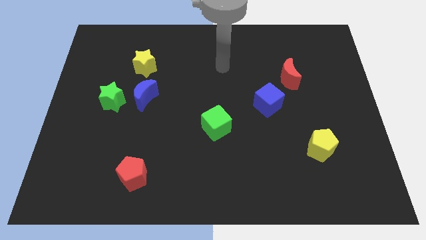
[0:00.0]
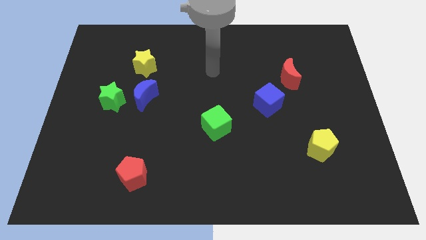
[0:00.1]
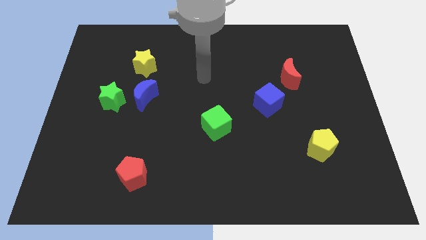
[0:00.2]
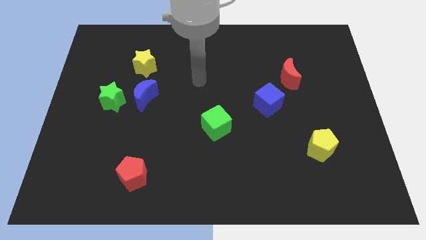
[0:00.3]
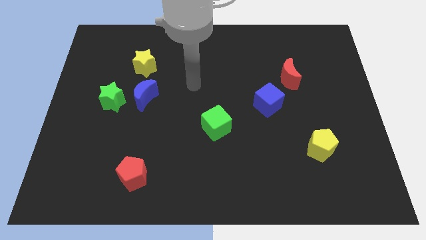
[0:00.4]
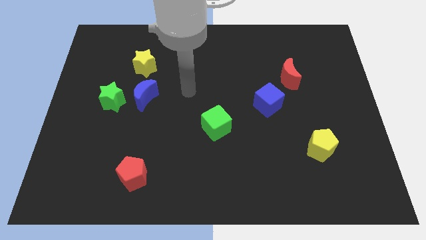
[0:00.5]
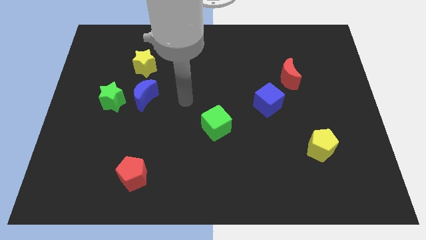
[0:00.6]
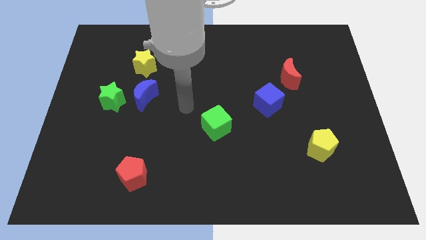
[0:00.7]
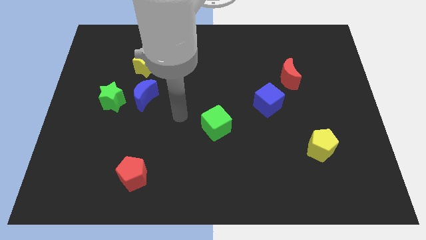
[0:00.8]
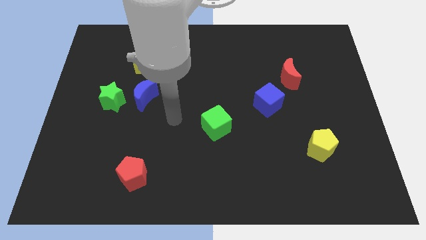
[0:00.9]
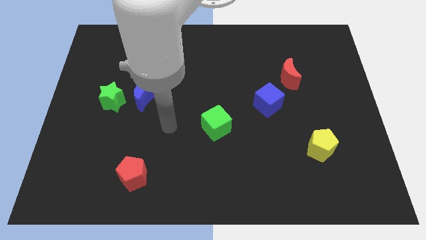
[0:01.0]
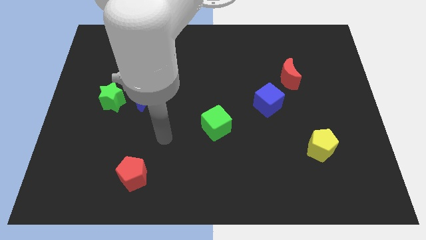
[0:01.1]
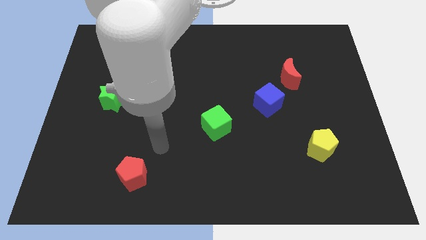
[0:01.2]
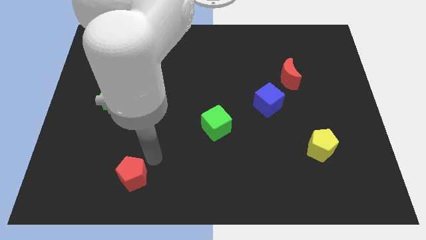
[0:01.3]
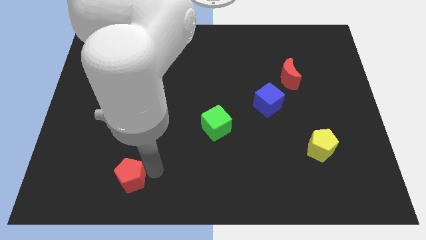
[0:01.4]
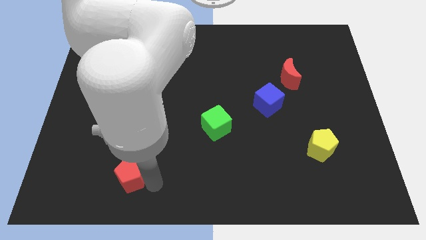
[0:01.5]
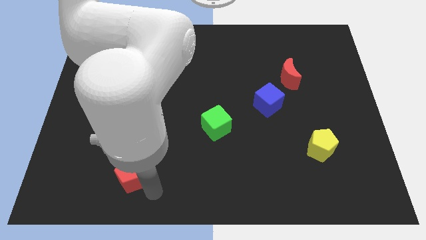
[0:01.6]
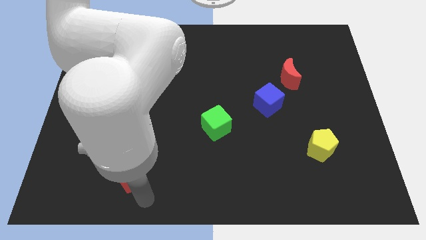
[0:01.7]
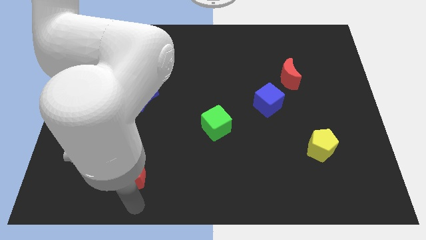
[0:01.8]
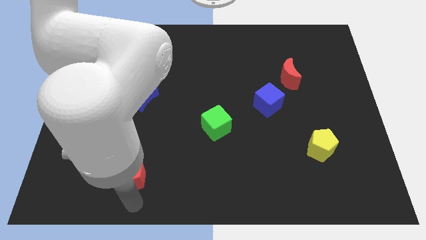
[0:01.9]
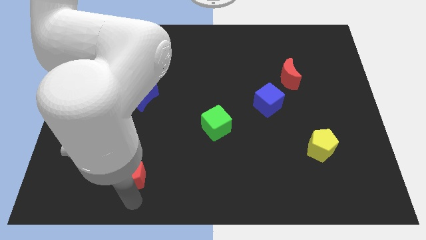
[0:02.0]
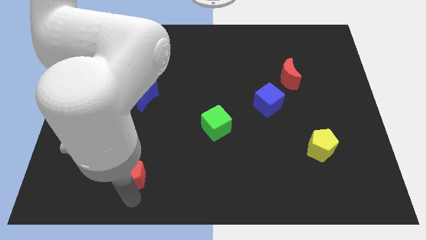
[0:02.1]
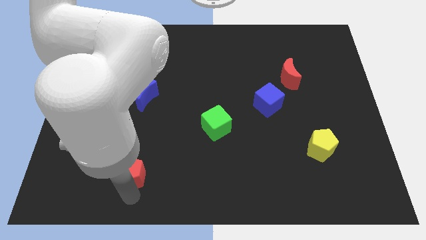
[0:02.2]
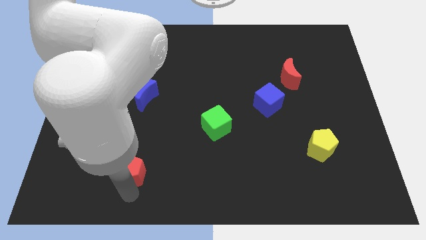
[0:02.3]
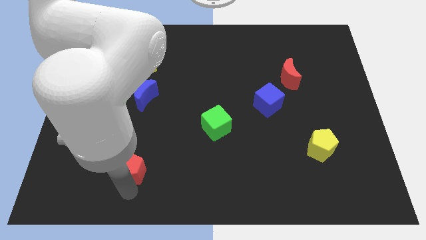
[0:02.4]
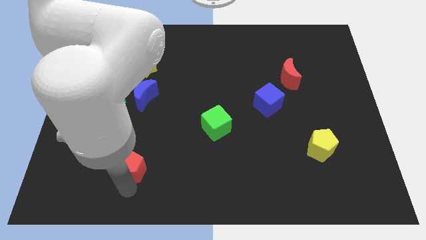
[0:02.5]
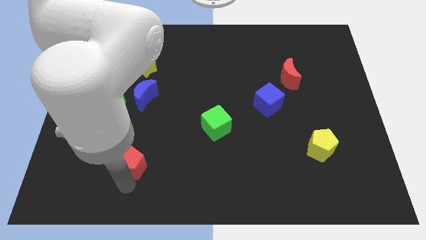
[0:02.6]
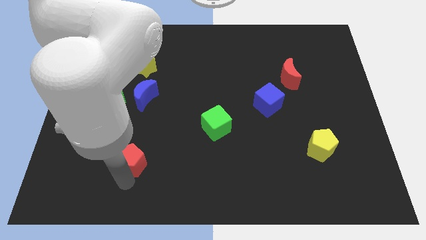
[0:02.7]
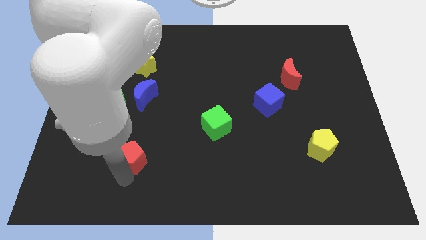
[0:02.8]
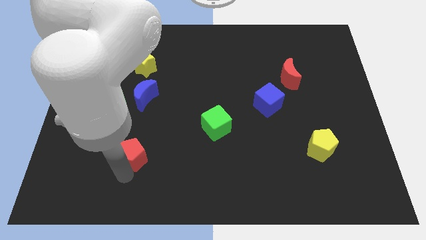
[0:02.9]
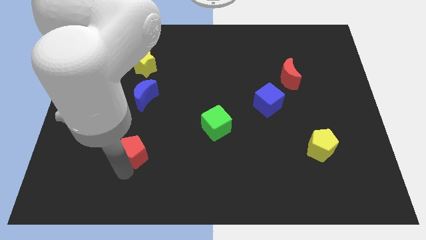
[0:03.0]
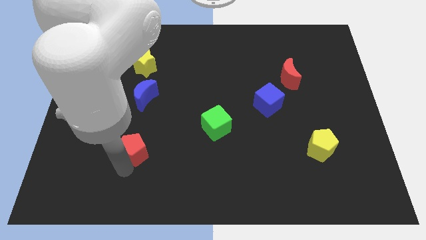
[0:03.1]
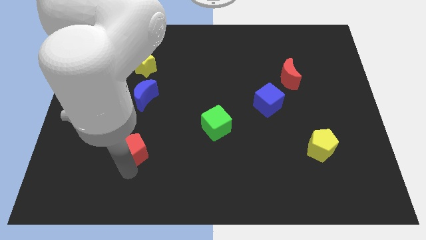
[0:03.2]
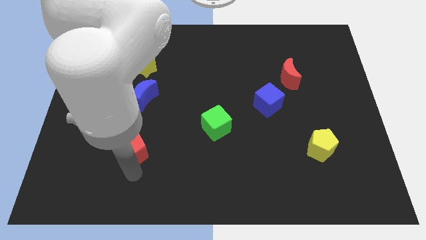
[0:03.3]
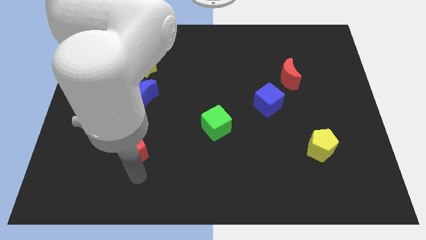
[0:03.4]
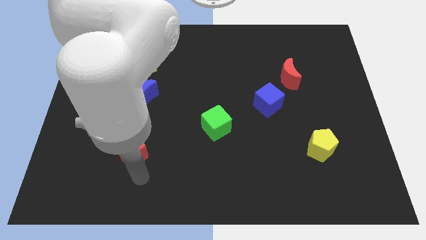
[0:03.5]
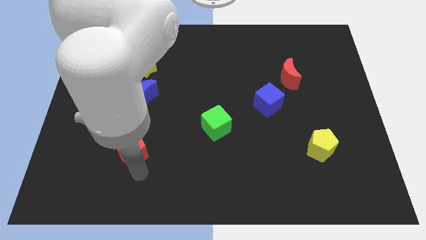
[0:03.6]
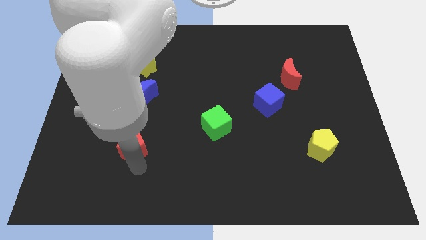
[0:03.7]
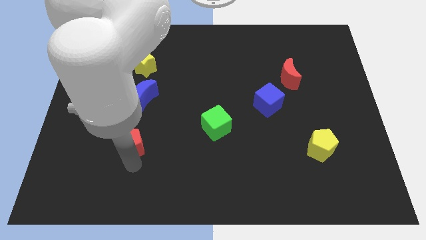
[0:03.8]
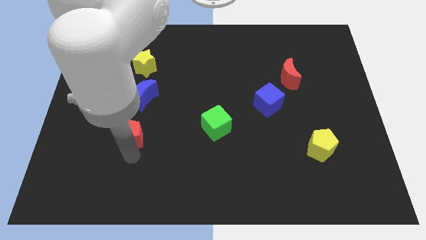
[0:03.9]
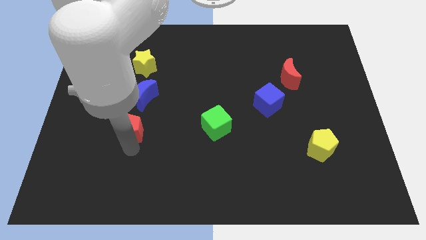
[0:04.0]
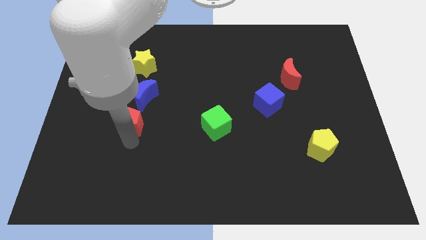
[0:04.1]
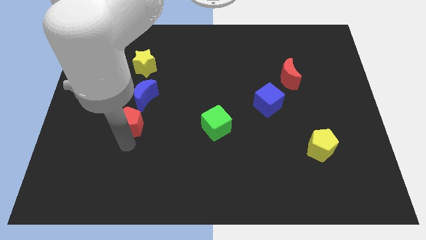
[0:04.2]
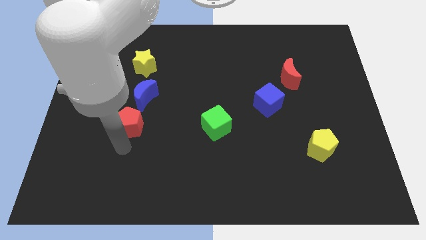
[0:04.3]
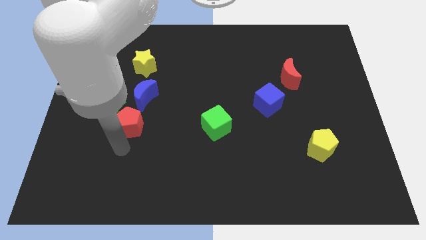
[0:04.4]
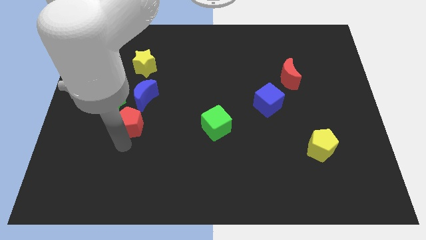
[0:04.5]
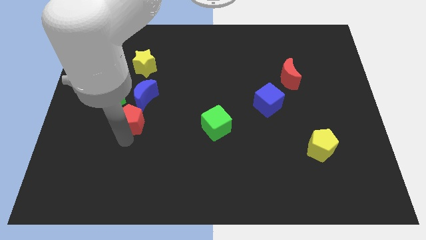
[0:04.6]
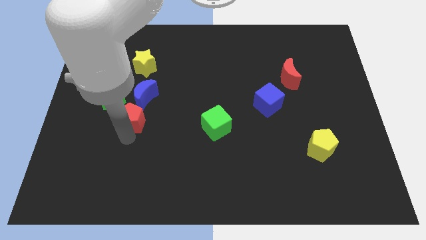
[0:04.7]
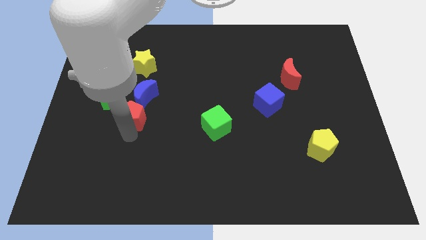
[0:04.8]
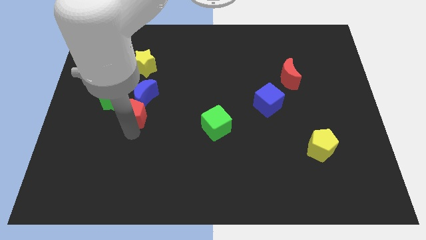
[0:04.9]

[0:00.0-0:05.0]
put the red pentagon to the bottom of the yellow star

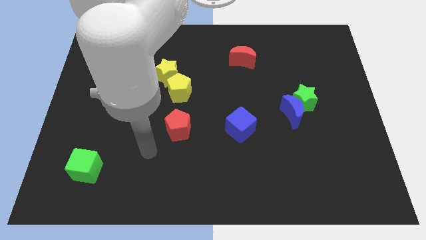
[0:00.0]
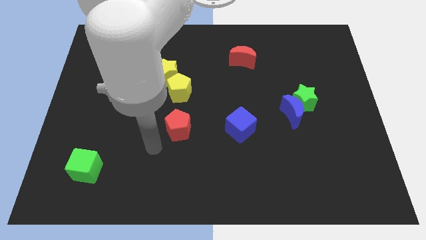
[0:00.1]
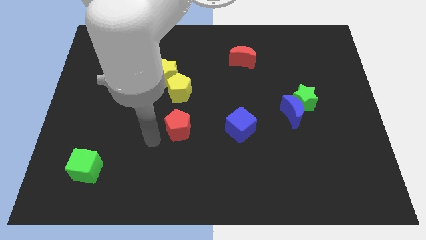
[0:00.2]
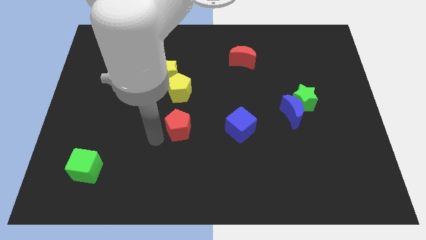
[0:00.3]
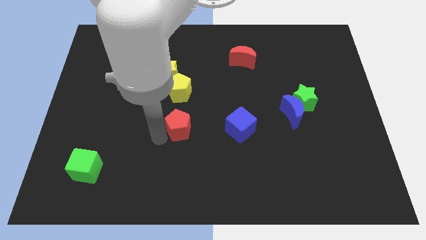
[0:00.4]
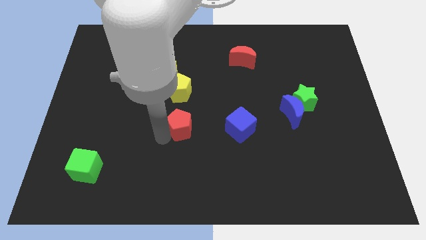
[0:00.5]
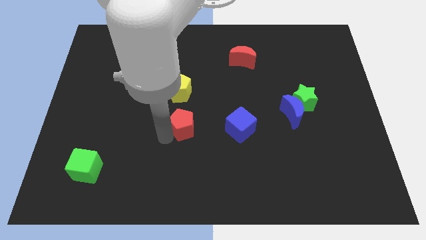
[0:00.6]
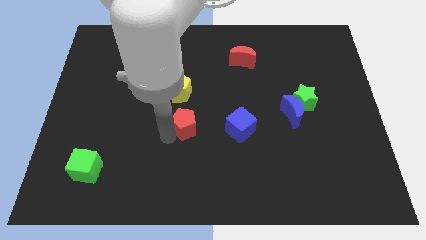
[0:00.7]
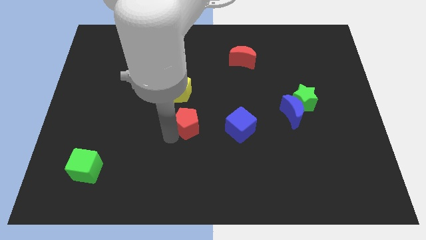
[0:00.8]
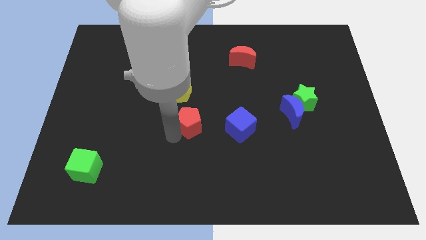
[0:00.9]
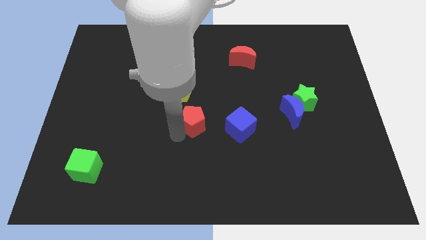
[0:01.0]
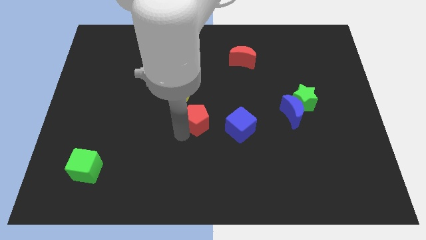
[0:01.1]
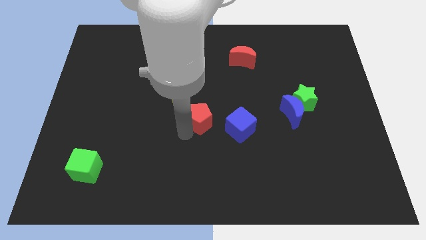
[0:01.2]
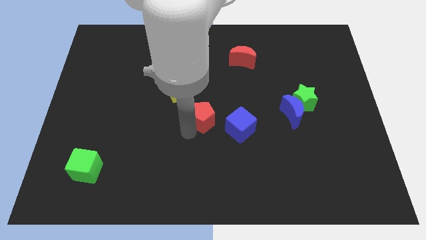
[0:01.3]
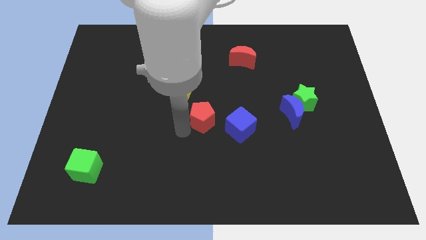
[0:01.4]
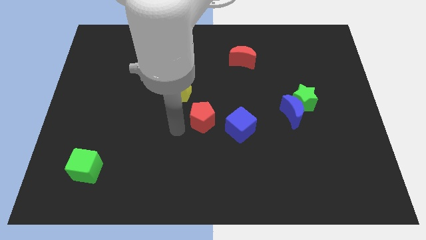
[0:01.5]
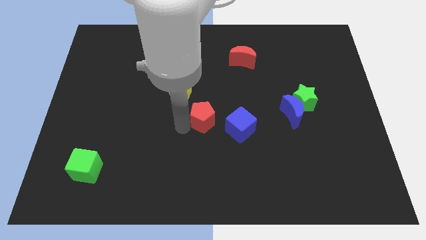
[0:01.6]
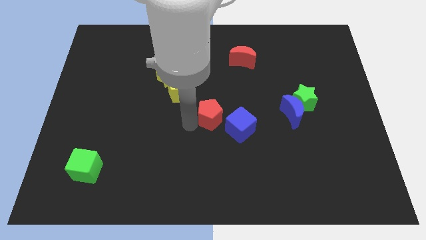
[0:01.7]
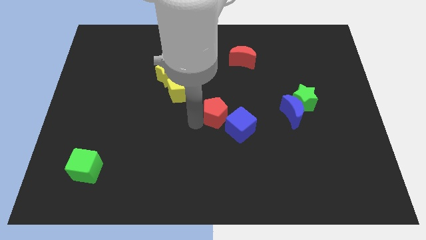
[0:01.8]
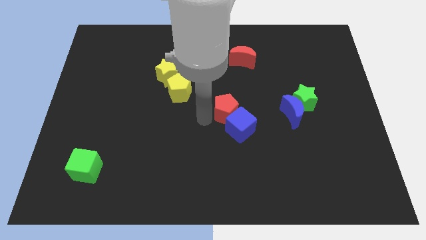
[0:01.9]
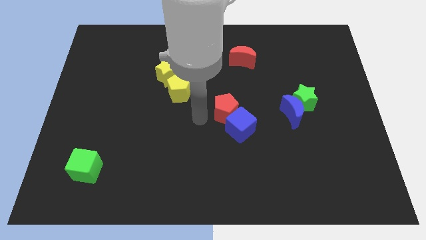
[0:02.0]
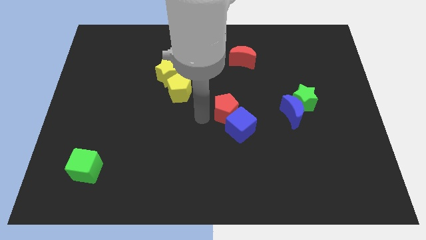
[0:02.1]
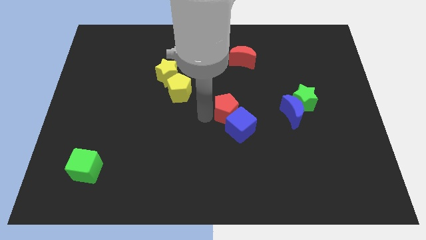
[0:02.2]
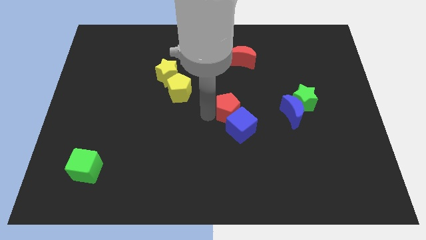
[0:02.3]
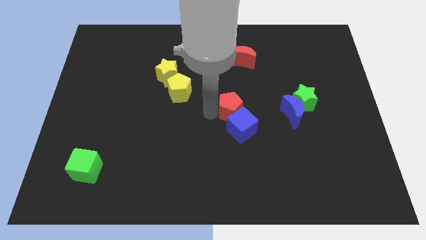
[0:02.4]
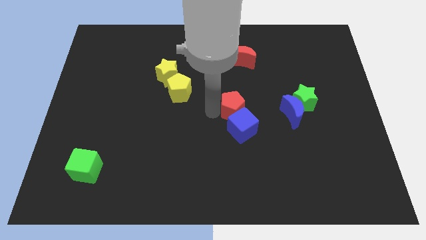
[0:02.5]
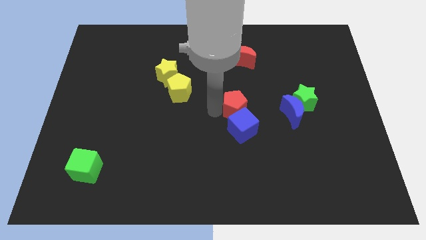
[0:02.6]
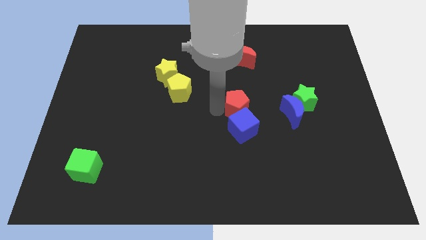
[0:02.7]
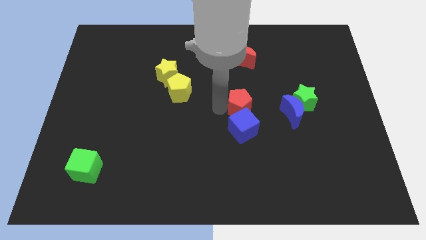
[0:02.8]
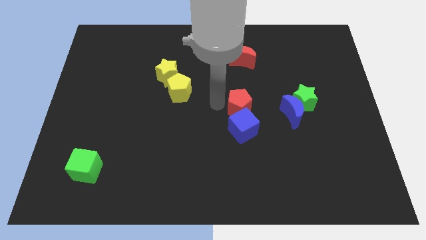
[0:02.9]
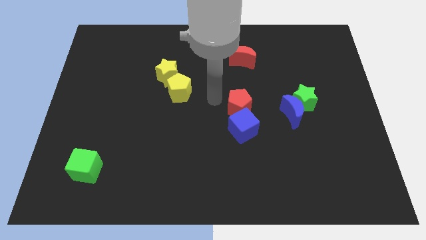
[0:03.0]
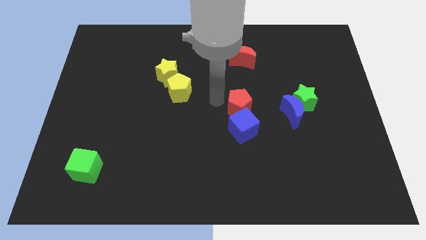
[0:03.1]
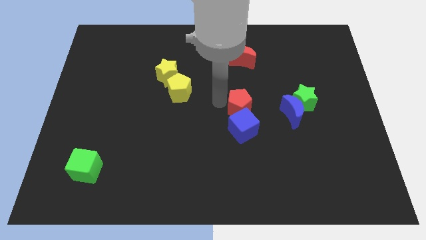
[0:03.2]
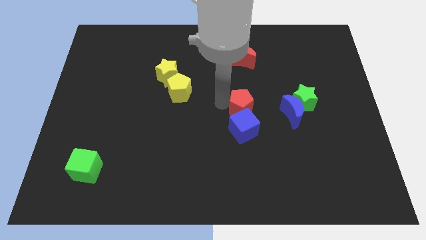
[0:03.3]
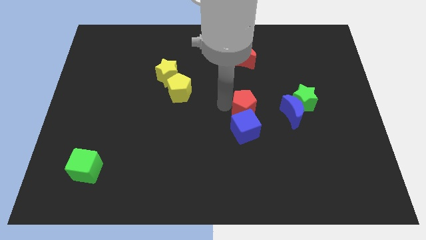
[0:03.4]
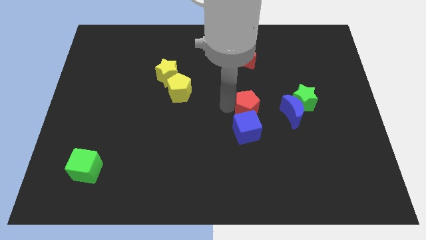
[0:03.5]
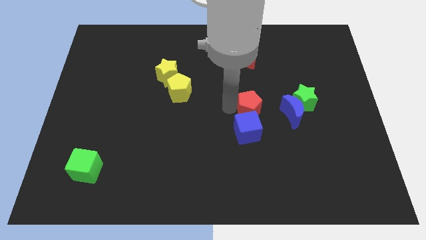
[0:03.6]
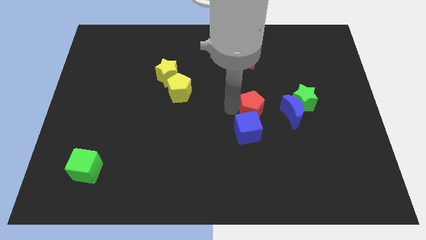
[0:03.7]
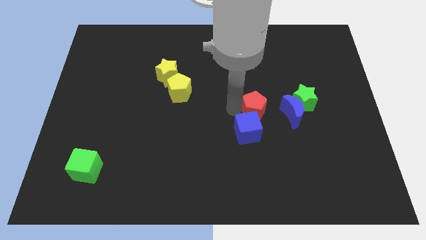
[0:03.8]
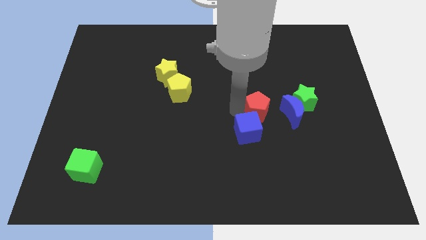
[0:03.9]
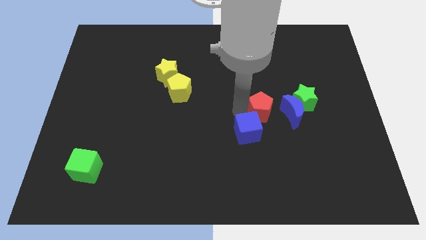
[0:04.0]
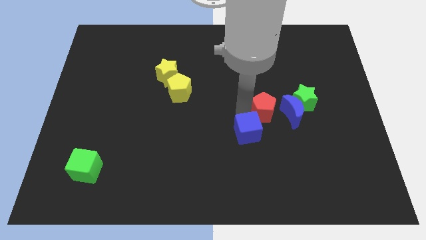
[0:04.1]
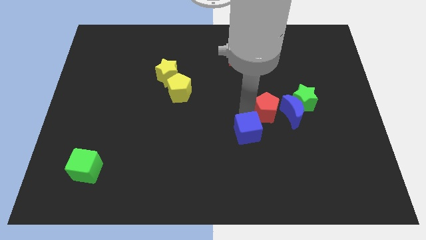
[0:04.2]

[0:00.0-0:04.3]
slide the red pentagon to the bottom left of the green star
